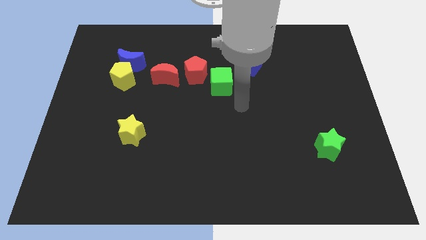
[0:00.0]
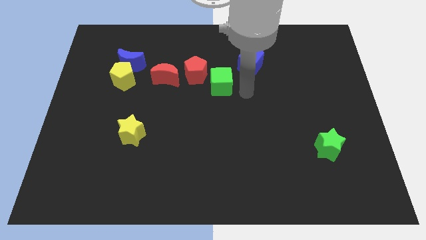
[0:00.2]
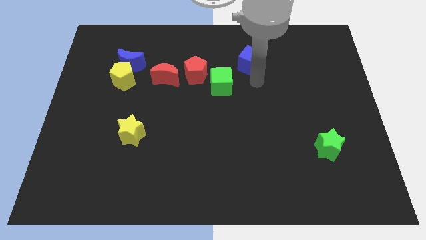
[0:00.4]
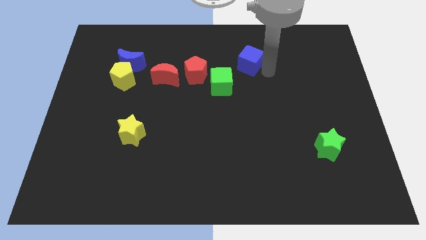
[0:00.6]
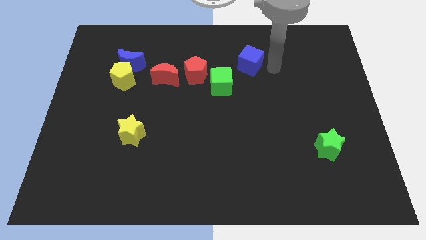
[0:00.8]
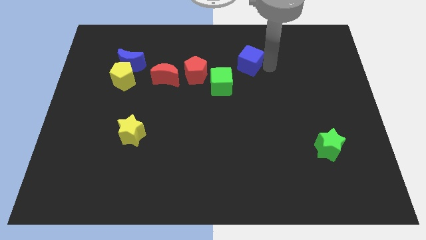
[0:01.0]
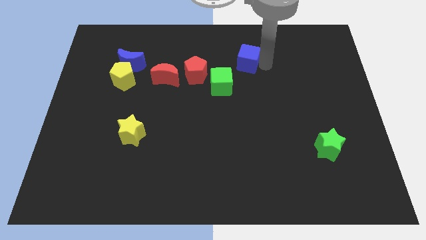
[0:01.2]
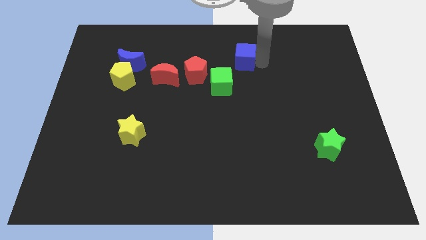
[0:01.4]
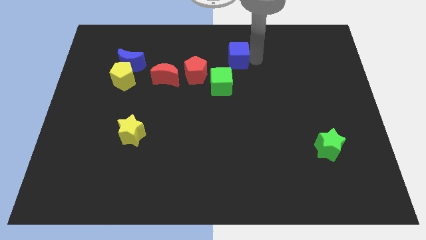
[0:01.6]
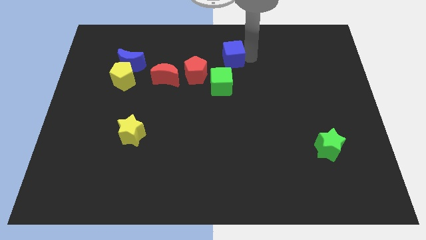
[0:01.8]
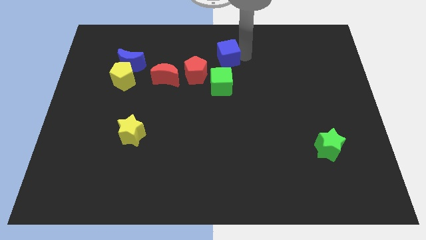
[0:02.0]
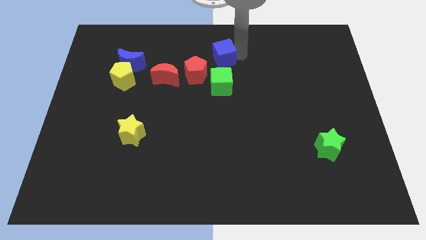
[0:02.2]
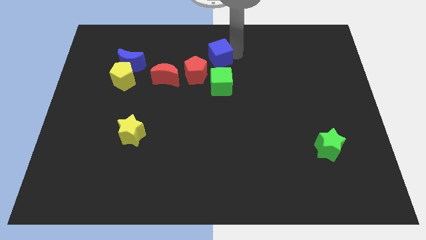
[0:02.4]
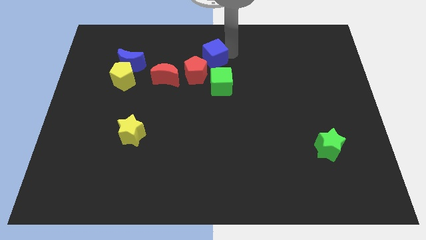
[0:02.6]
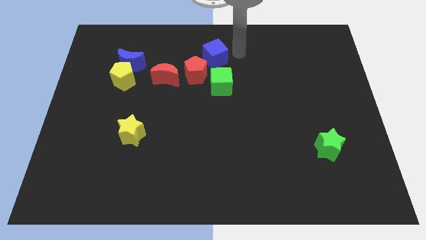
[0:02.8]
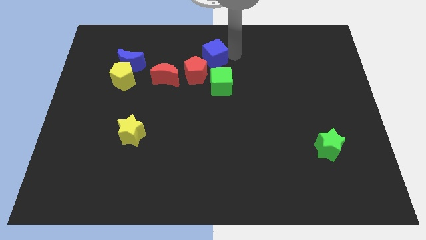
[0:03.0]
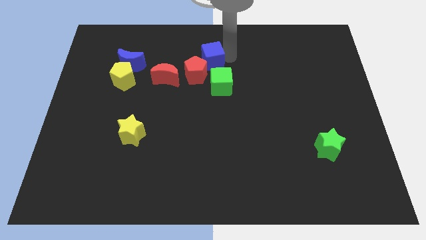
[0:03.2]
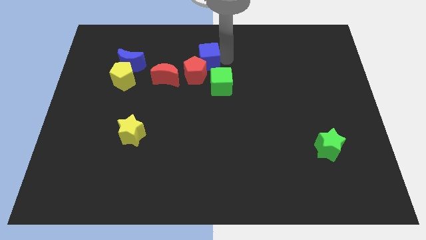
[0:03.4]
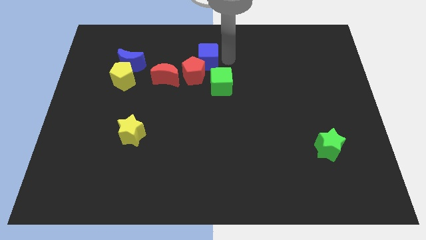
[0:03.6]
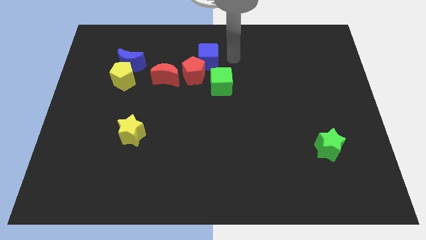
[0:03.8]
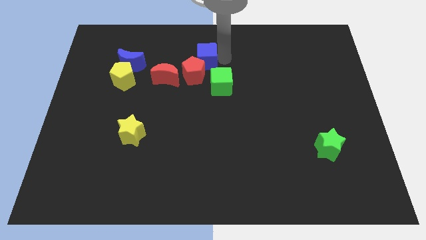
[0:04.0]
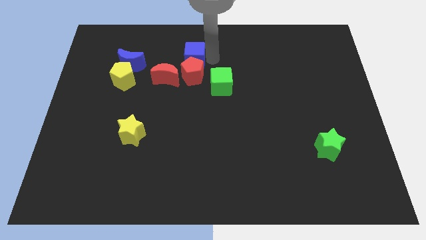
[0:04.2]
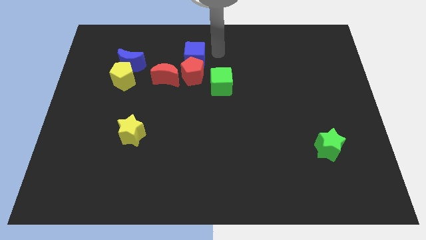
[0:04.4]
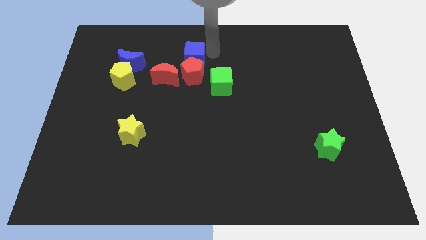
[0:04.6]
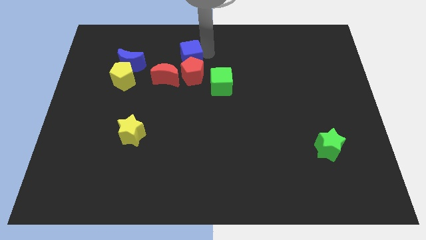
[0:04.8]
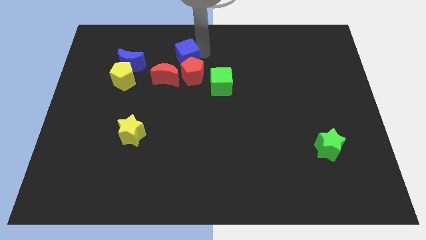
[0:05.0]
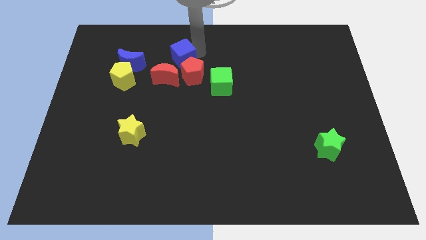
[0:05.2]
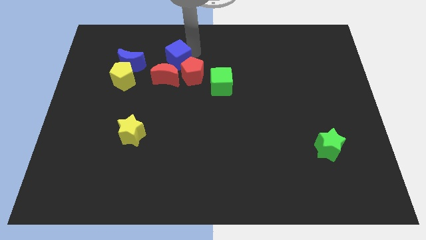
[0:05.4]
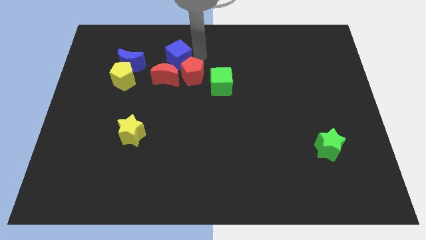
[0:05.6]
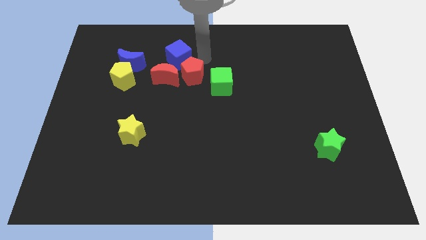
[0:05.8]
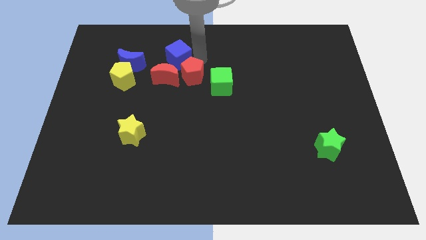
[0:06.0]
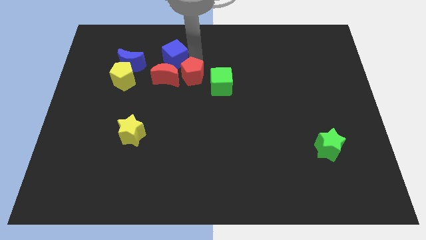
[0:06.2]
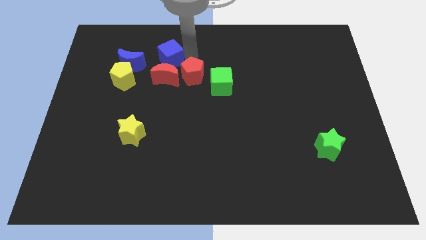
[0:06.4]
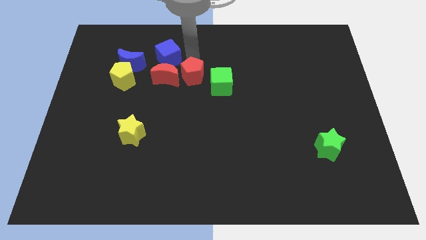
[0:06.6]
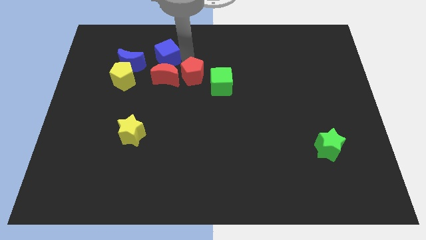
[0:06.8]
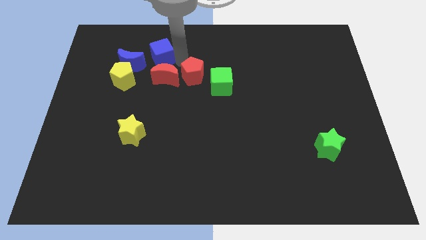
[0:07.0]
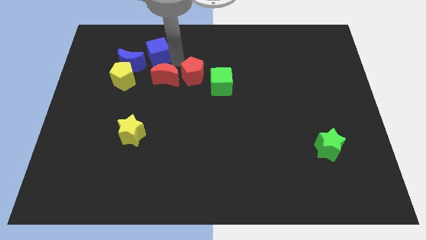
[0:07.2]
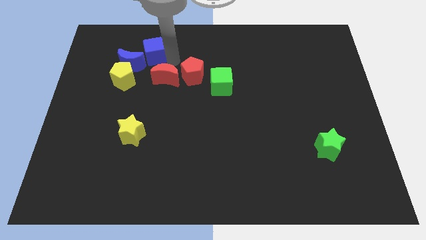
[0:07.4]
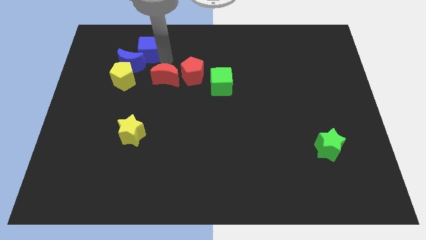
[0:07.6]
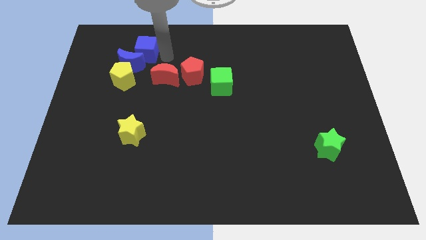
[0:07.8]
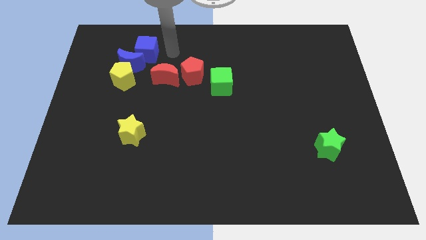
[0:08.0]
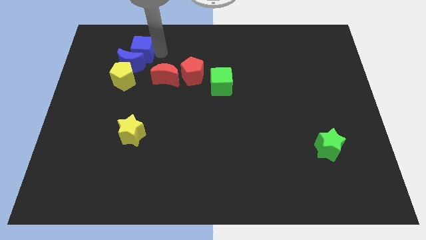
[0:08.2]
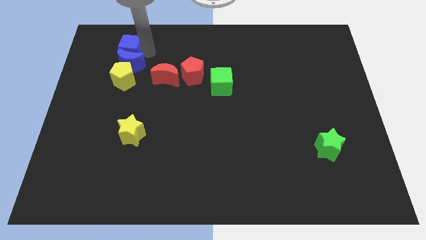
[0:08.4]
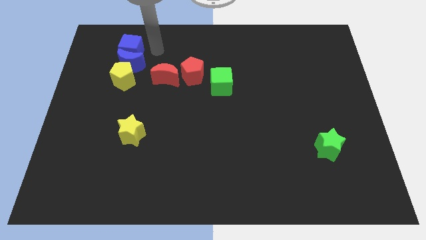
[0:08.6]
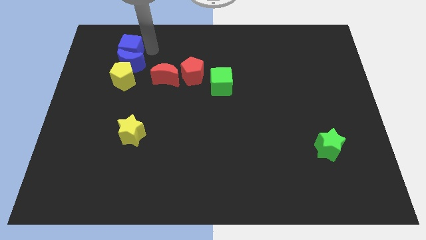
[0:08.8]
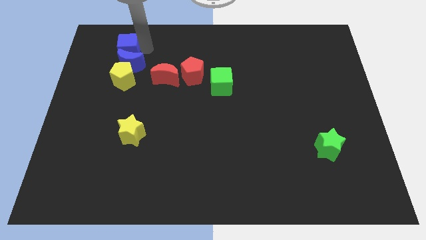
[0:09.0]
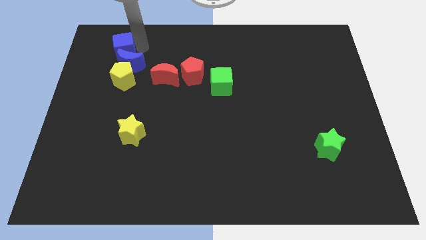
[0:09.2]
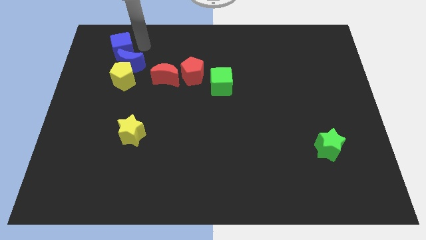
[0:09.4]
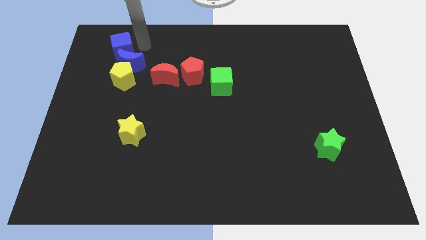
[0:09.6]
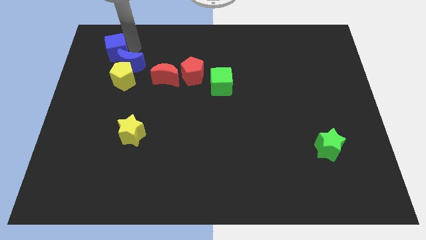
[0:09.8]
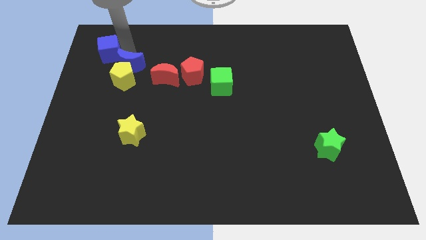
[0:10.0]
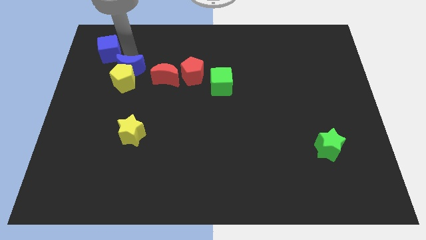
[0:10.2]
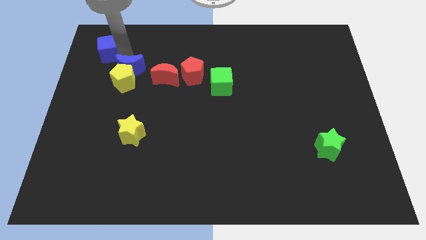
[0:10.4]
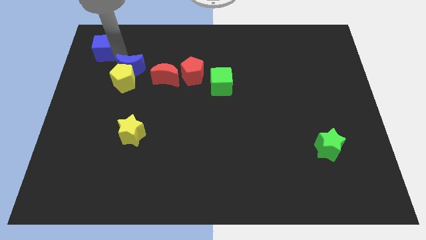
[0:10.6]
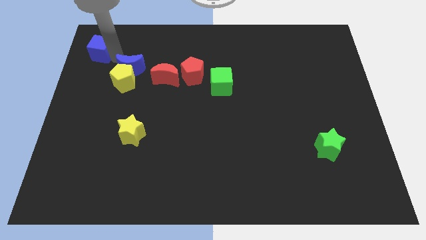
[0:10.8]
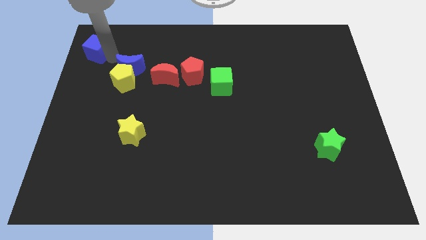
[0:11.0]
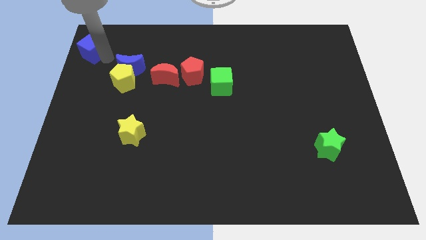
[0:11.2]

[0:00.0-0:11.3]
put the blue cube to the top left of the board

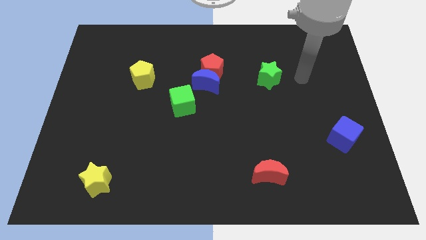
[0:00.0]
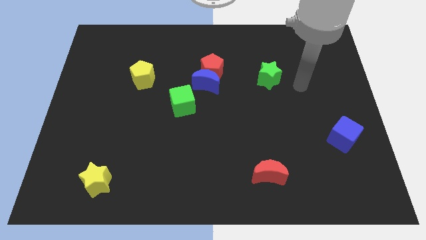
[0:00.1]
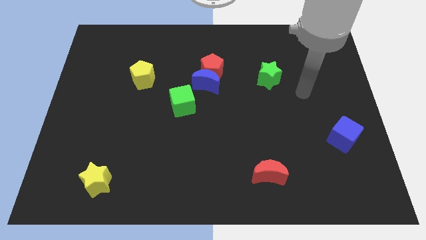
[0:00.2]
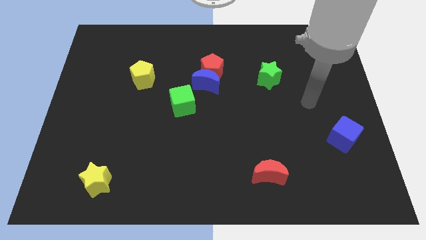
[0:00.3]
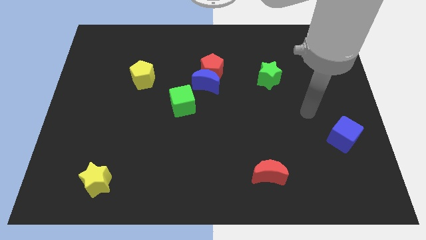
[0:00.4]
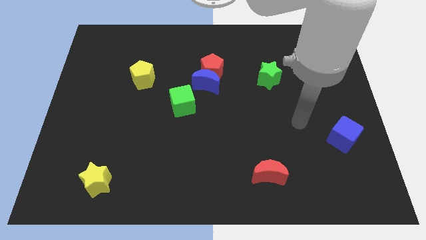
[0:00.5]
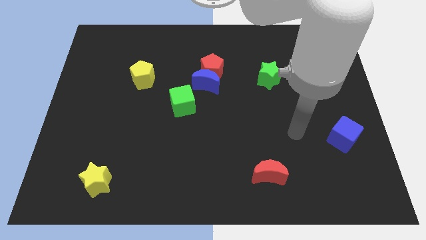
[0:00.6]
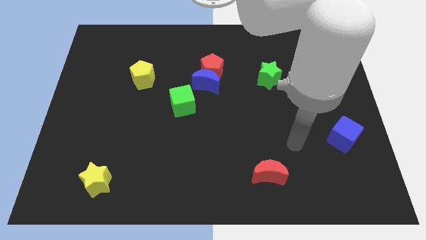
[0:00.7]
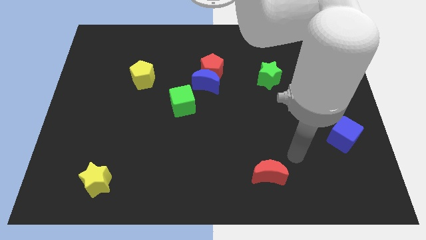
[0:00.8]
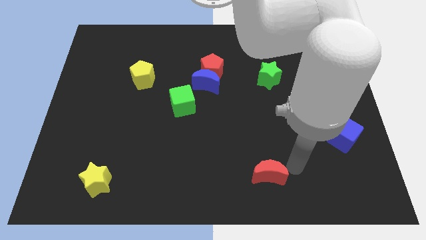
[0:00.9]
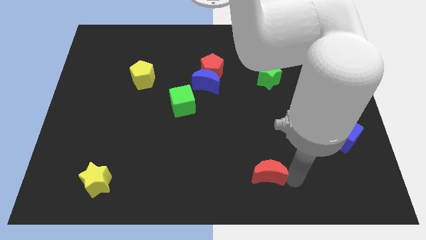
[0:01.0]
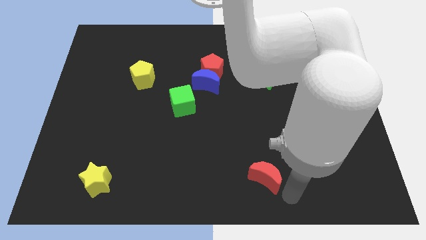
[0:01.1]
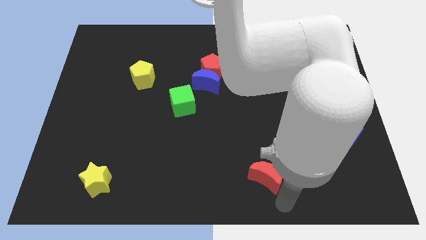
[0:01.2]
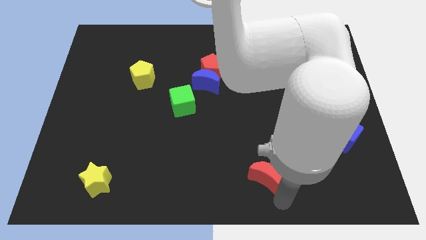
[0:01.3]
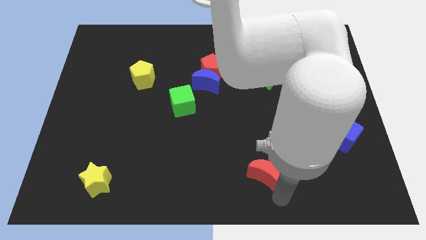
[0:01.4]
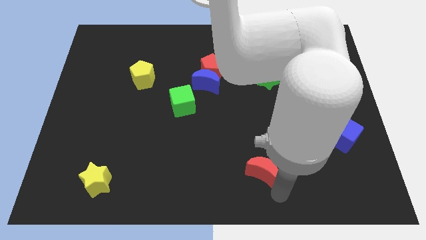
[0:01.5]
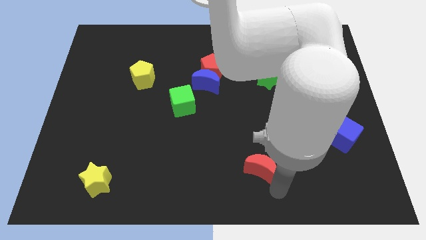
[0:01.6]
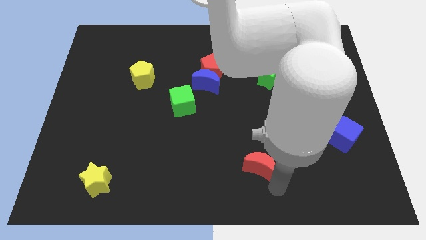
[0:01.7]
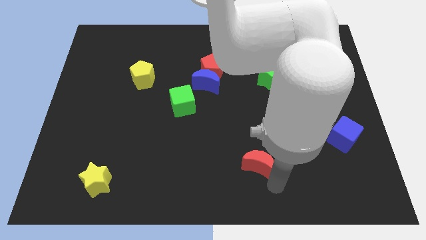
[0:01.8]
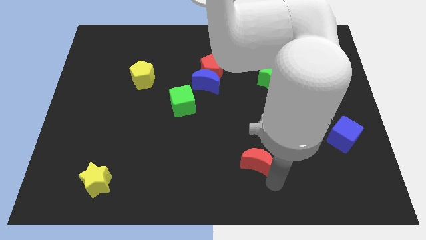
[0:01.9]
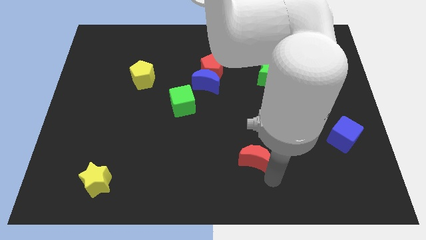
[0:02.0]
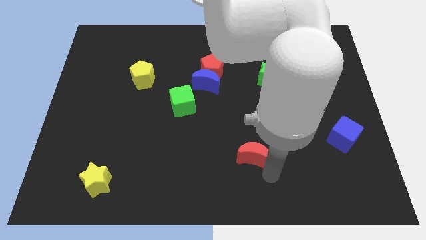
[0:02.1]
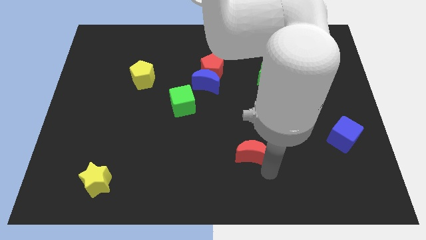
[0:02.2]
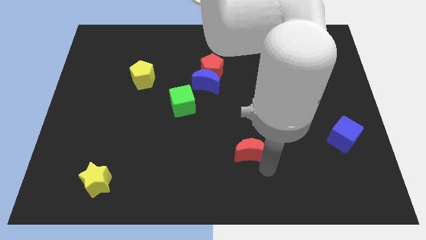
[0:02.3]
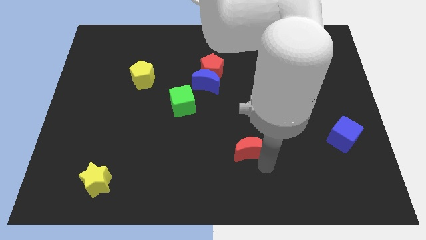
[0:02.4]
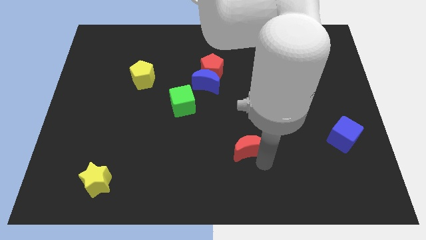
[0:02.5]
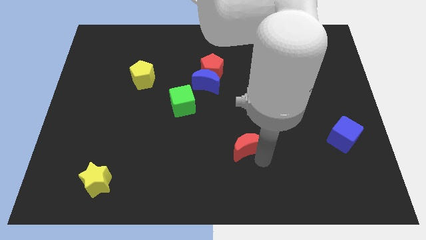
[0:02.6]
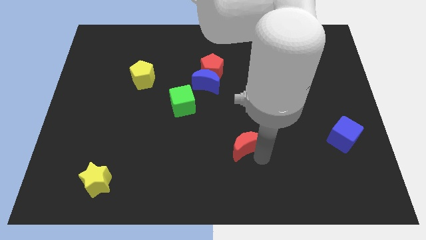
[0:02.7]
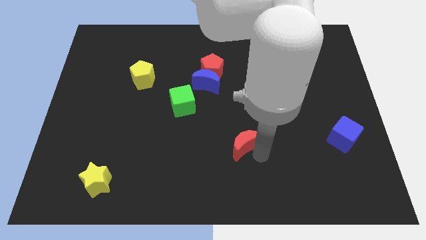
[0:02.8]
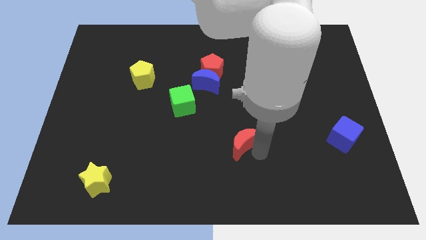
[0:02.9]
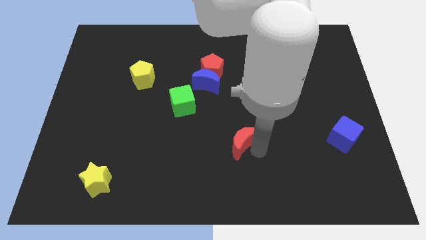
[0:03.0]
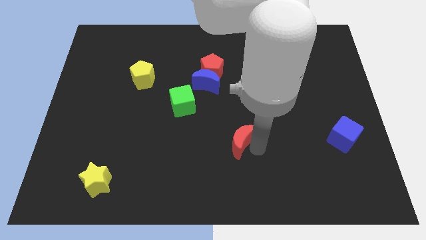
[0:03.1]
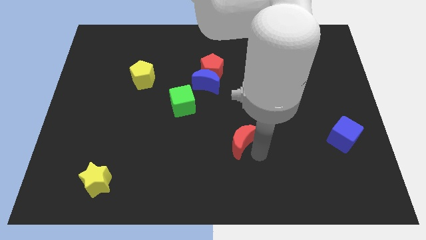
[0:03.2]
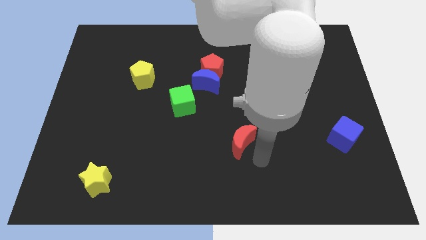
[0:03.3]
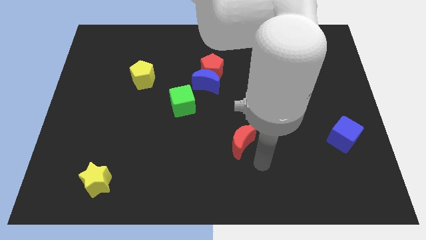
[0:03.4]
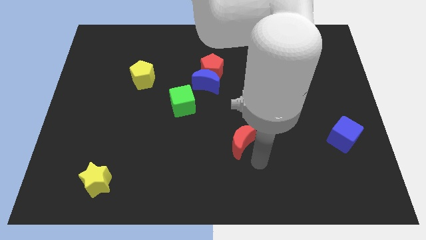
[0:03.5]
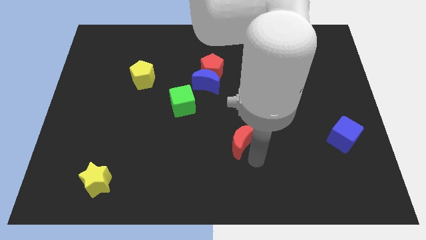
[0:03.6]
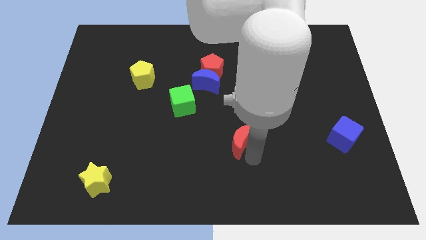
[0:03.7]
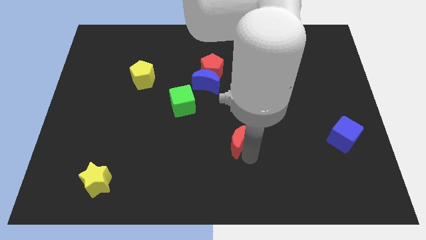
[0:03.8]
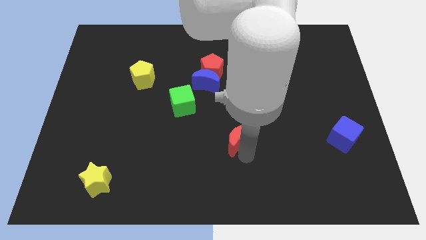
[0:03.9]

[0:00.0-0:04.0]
slide the red moon to the middle
